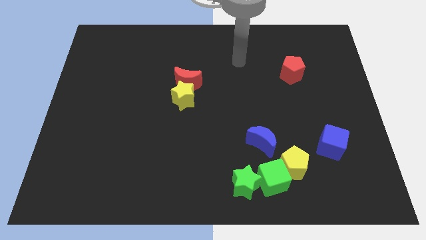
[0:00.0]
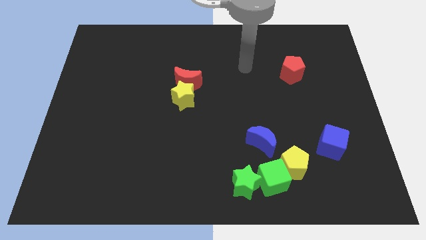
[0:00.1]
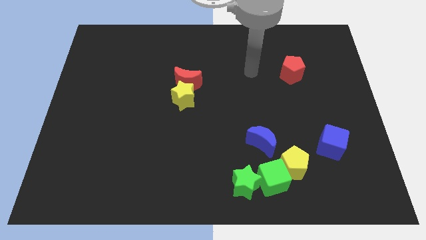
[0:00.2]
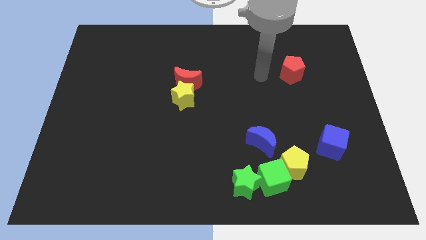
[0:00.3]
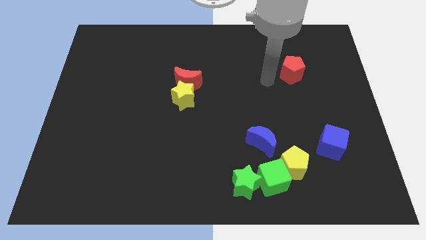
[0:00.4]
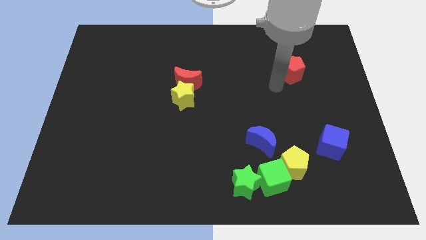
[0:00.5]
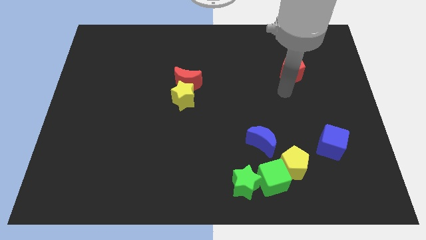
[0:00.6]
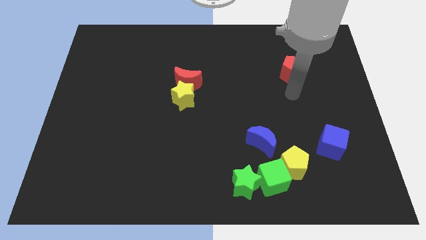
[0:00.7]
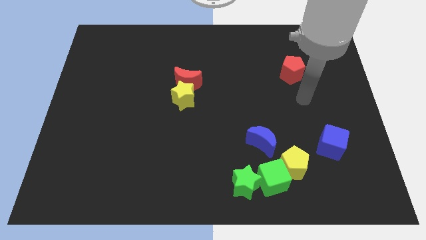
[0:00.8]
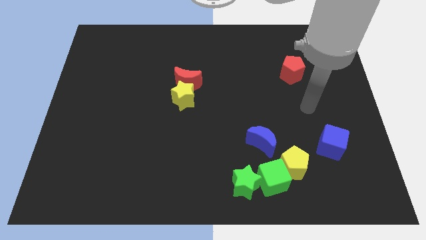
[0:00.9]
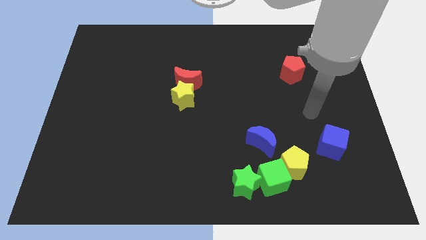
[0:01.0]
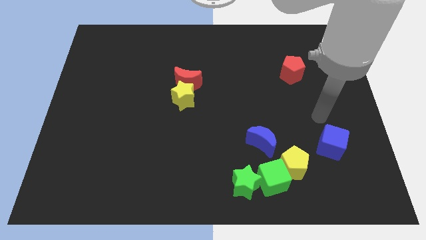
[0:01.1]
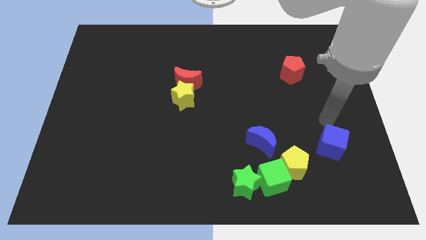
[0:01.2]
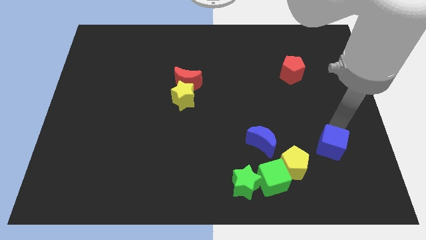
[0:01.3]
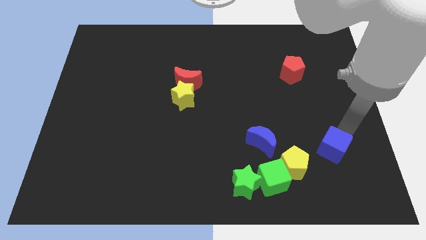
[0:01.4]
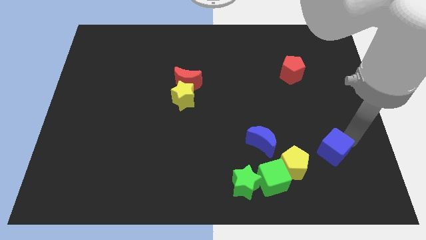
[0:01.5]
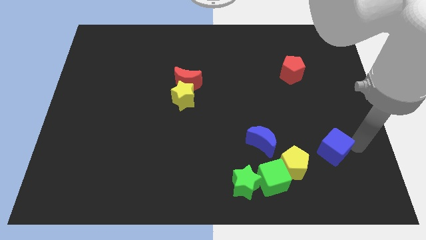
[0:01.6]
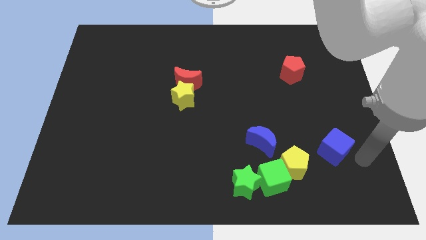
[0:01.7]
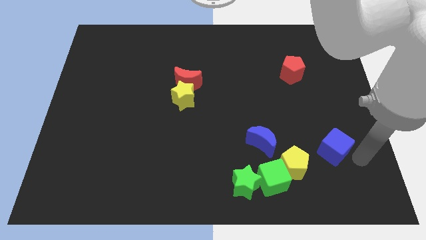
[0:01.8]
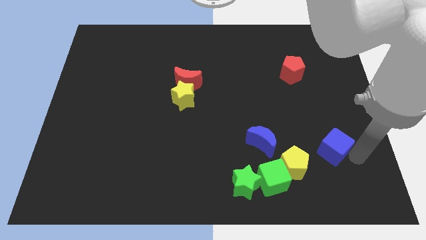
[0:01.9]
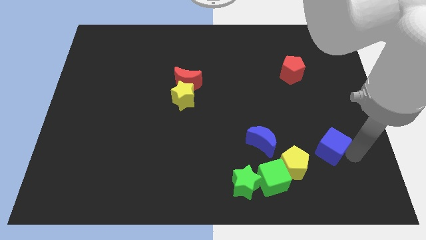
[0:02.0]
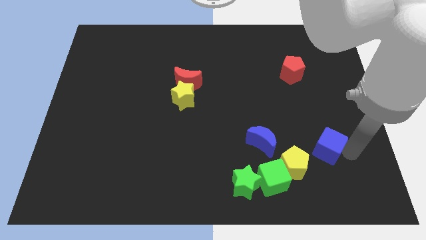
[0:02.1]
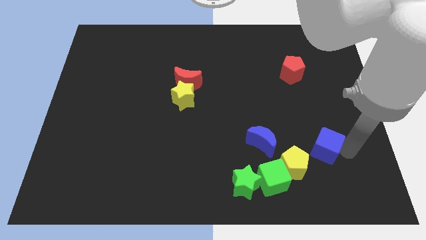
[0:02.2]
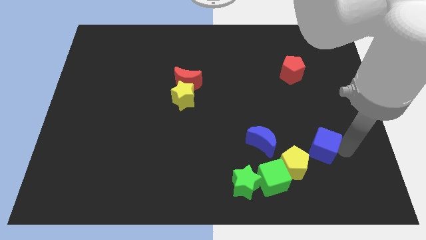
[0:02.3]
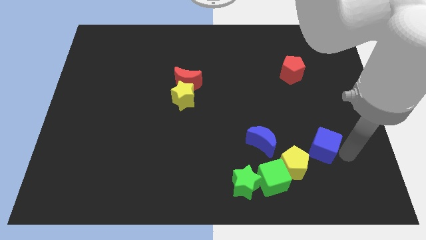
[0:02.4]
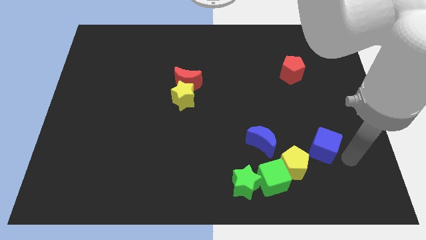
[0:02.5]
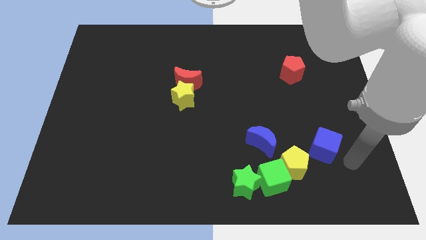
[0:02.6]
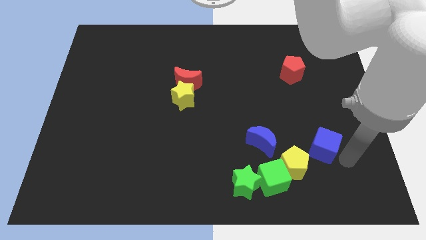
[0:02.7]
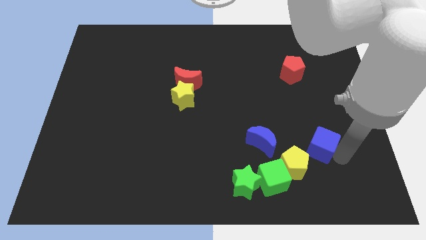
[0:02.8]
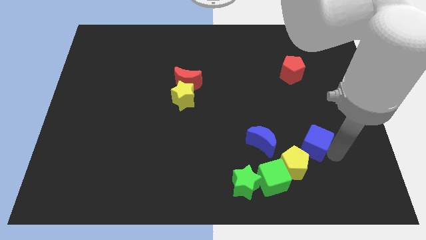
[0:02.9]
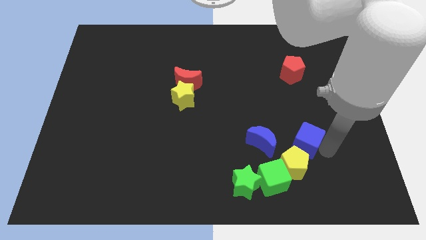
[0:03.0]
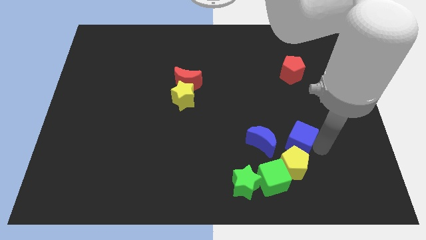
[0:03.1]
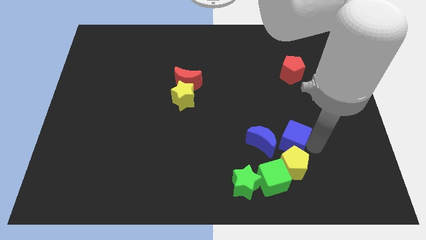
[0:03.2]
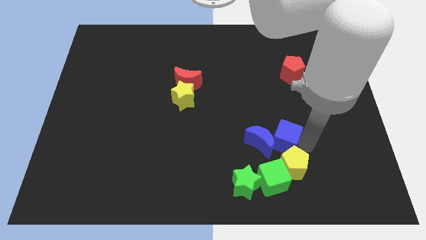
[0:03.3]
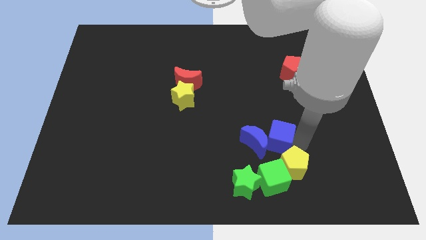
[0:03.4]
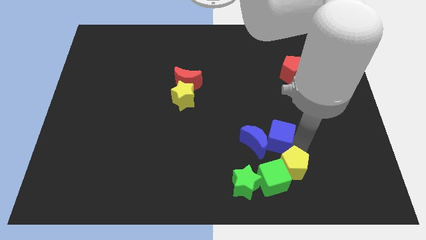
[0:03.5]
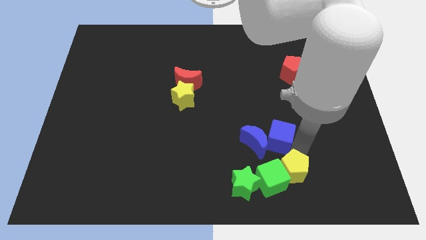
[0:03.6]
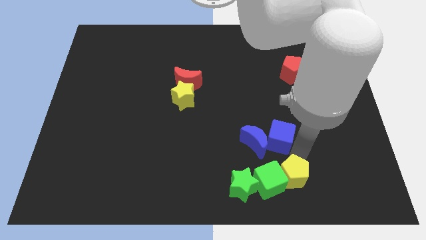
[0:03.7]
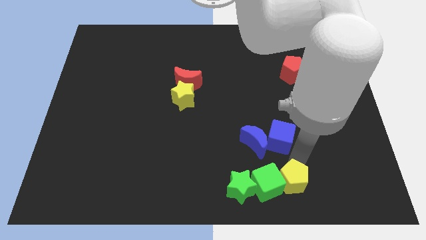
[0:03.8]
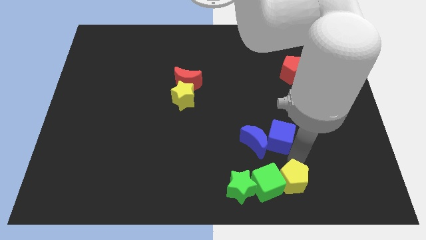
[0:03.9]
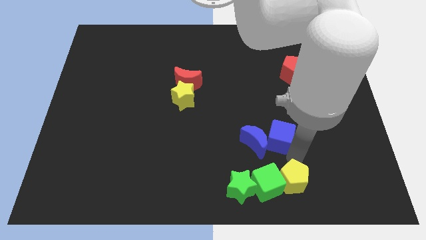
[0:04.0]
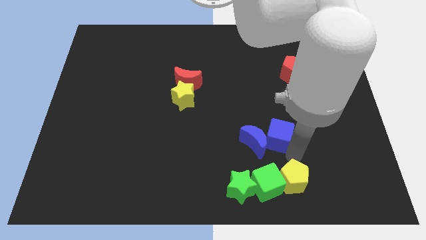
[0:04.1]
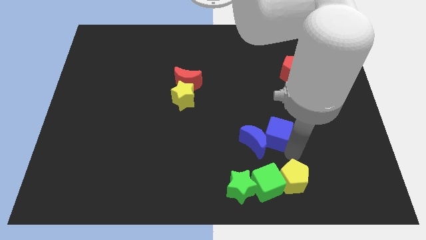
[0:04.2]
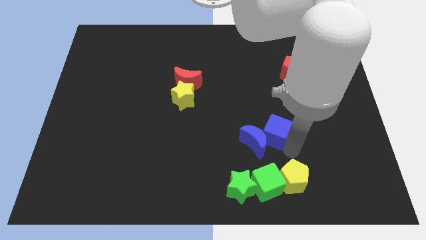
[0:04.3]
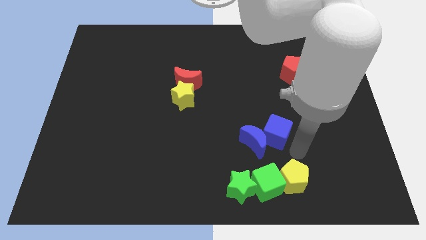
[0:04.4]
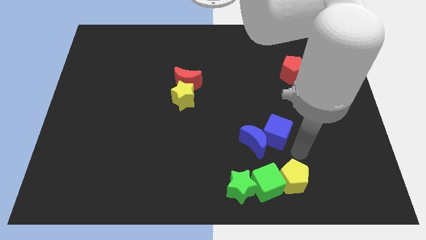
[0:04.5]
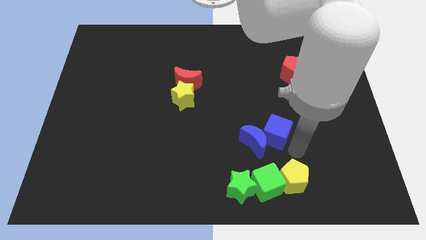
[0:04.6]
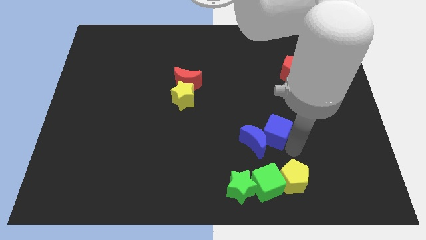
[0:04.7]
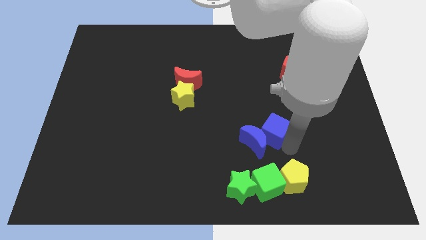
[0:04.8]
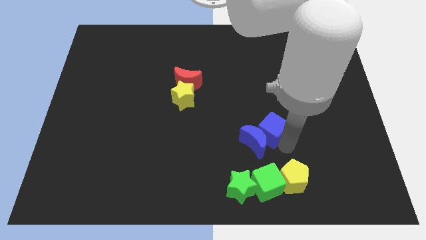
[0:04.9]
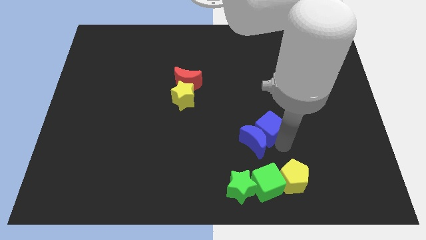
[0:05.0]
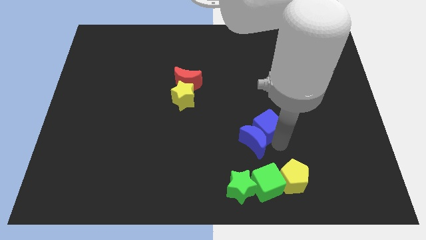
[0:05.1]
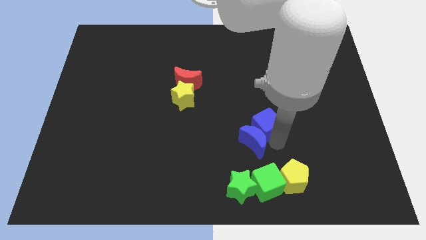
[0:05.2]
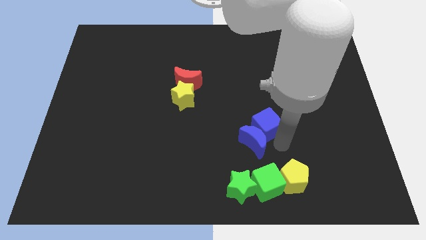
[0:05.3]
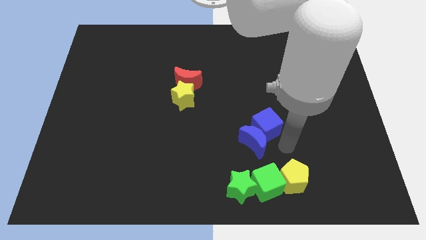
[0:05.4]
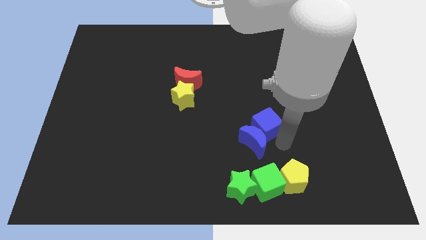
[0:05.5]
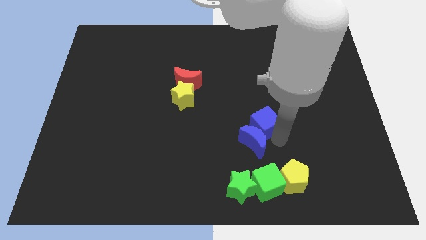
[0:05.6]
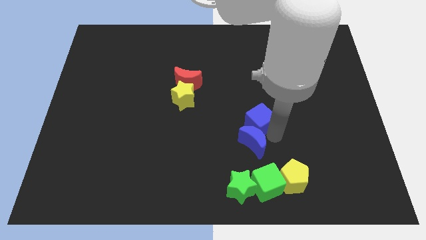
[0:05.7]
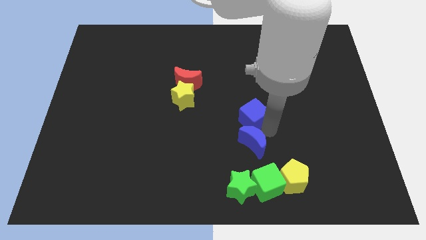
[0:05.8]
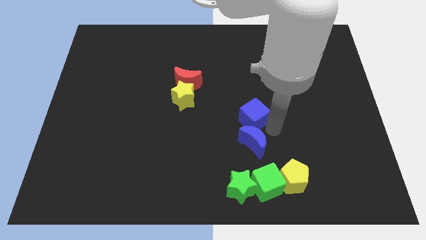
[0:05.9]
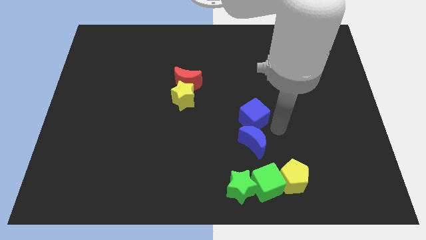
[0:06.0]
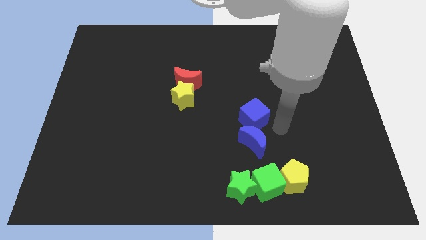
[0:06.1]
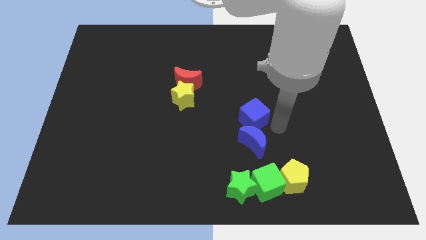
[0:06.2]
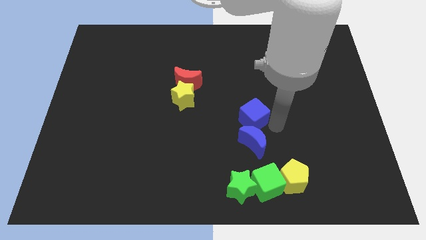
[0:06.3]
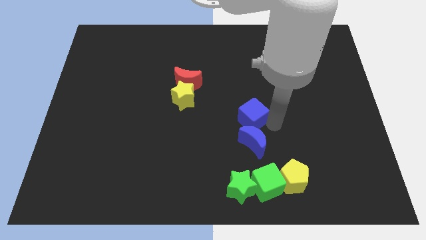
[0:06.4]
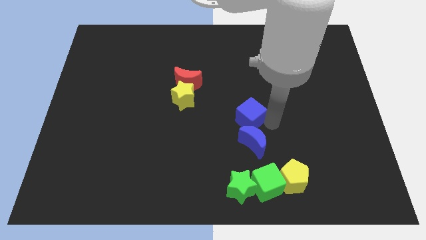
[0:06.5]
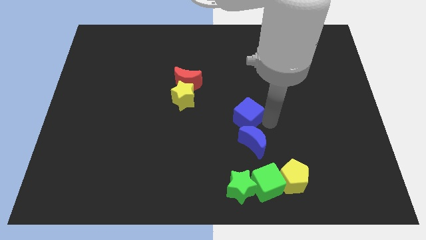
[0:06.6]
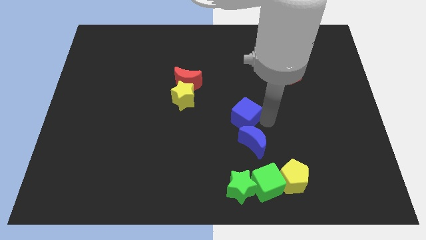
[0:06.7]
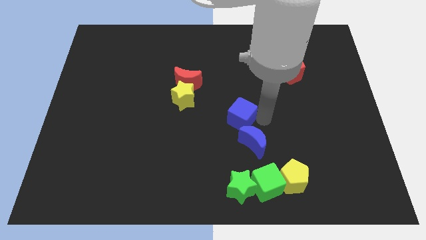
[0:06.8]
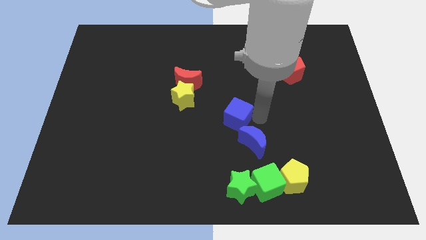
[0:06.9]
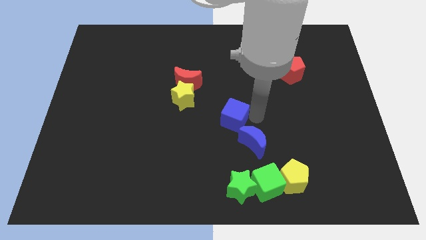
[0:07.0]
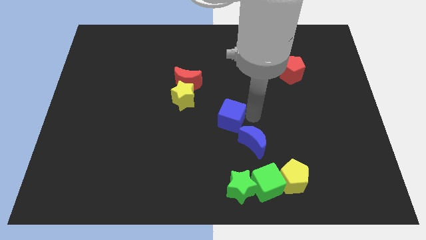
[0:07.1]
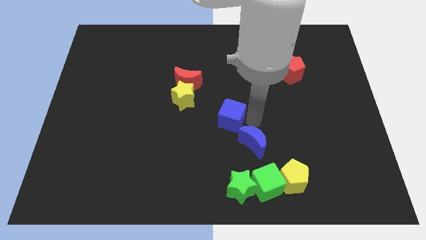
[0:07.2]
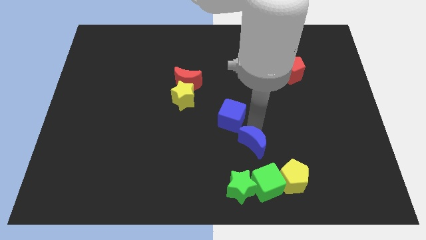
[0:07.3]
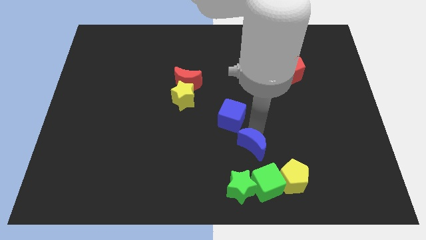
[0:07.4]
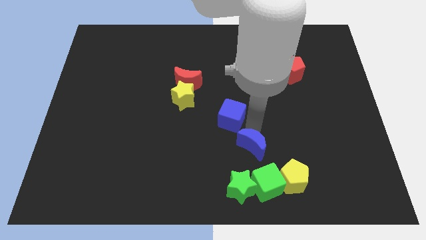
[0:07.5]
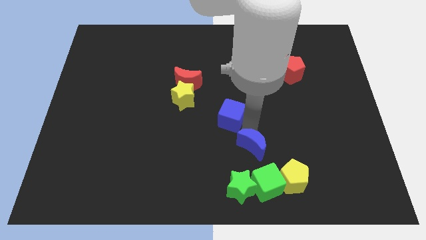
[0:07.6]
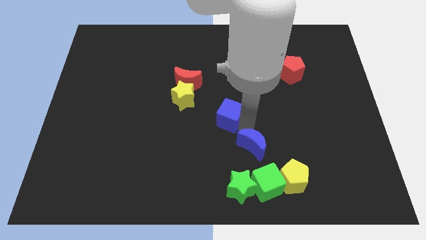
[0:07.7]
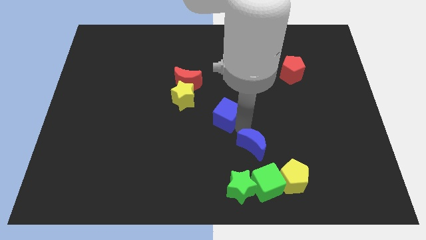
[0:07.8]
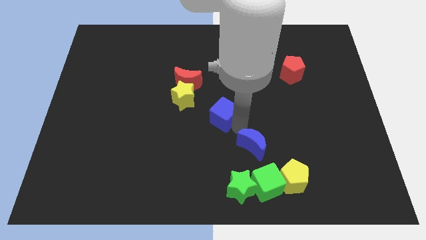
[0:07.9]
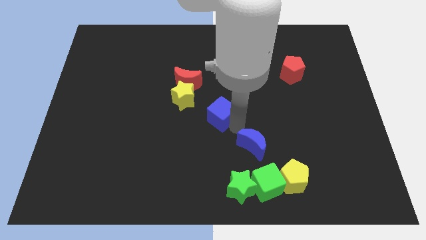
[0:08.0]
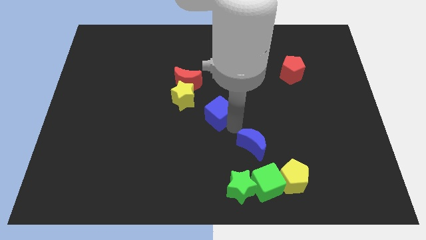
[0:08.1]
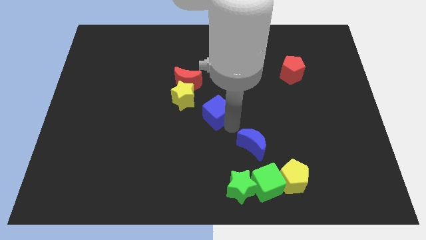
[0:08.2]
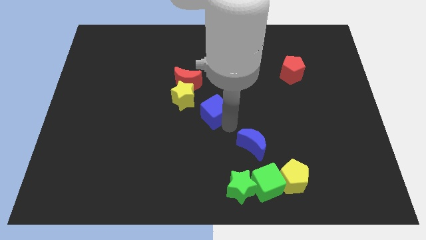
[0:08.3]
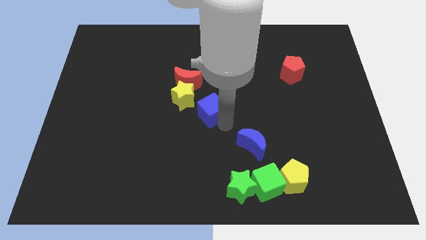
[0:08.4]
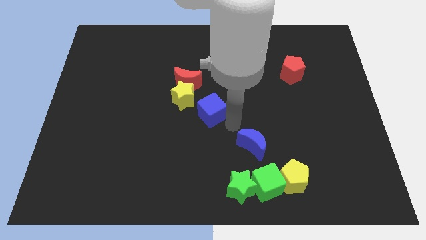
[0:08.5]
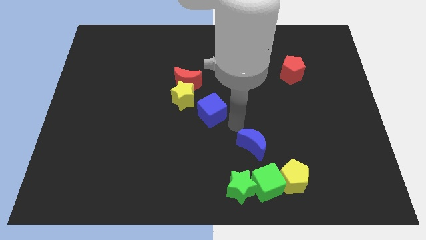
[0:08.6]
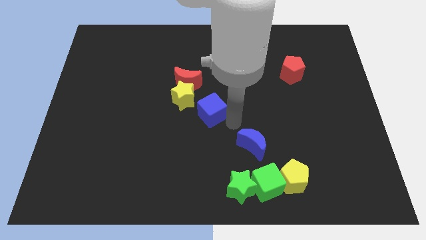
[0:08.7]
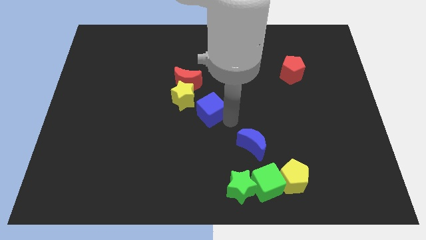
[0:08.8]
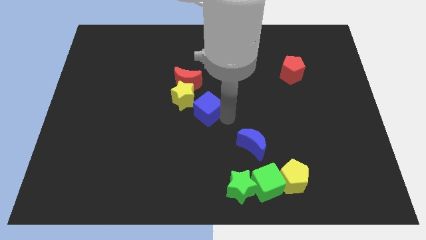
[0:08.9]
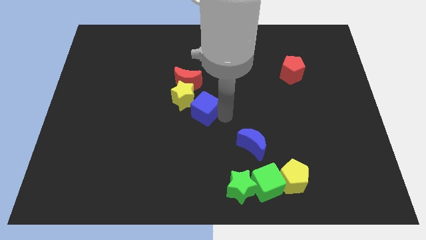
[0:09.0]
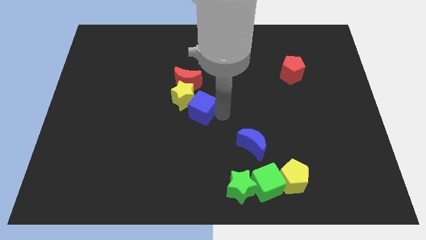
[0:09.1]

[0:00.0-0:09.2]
move the blue cube close to the yellow star
